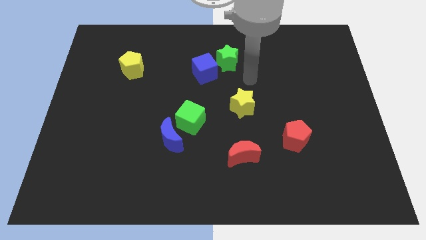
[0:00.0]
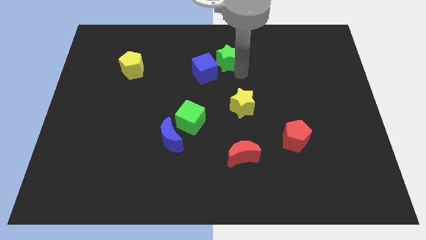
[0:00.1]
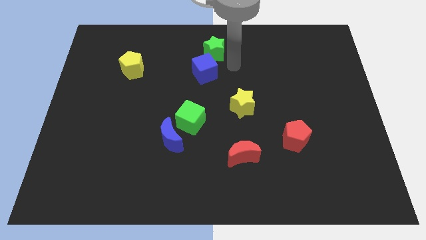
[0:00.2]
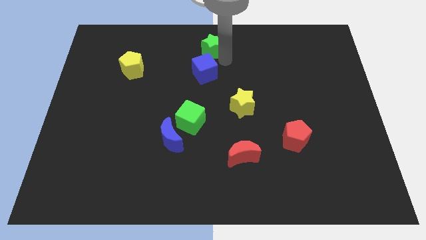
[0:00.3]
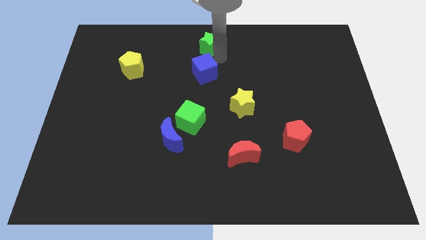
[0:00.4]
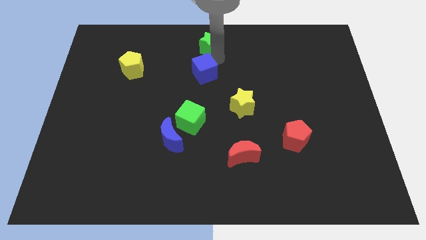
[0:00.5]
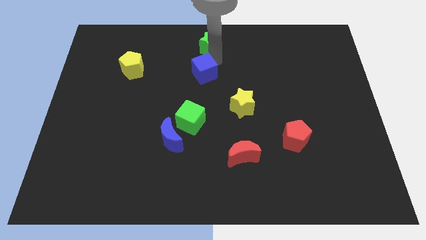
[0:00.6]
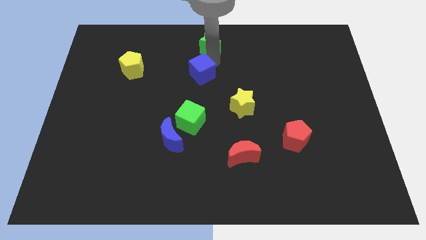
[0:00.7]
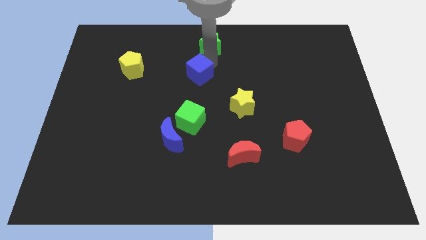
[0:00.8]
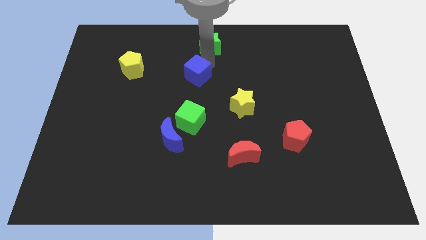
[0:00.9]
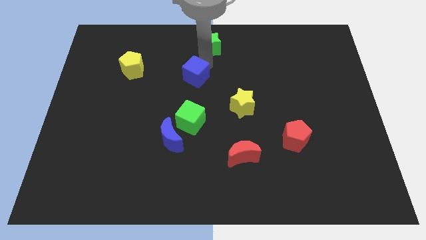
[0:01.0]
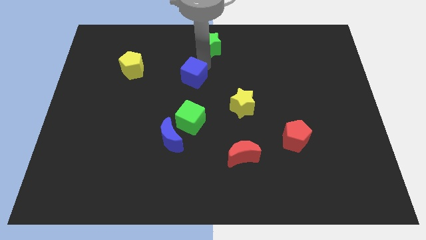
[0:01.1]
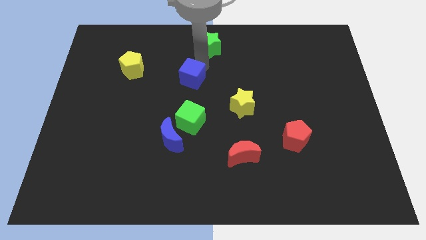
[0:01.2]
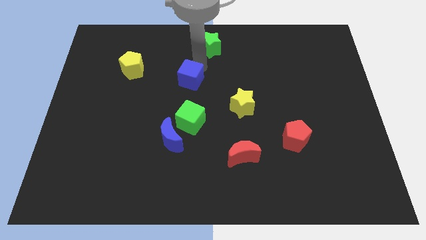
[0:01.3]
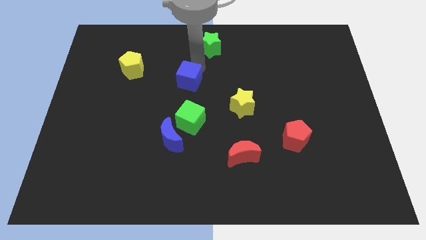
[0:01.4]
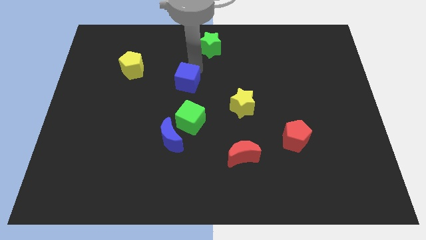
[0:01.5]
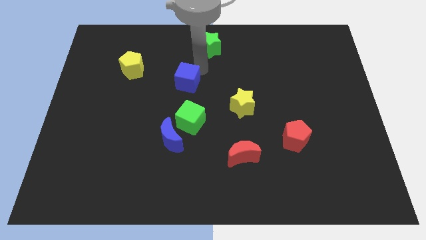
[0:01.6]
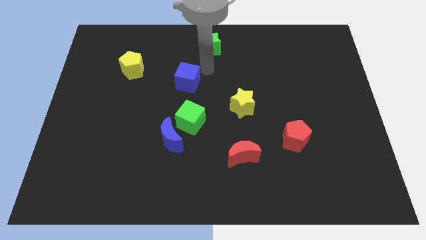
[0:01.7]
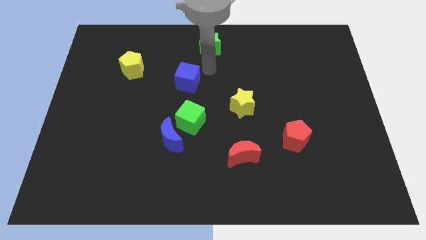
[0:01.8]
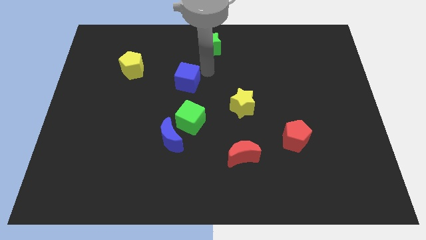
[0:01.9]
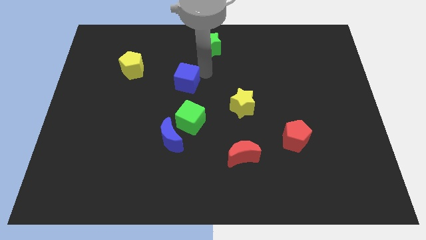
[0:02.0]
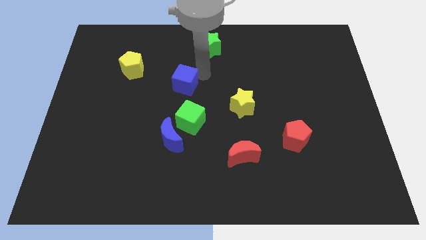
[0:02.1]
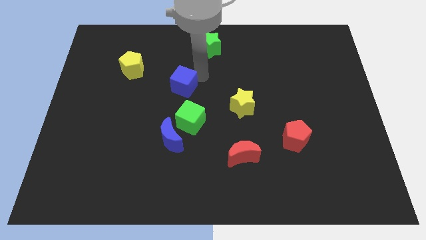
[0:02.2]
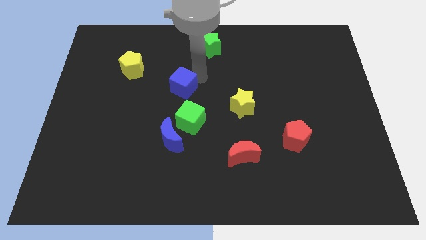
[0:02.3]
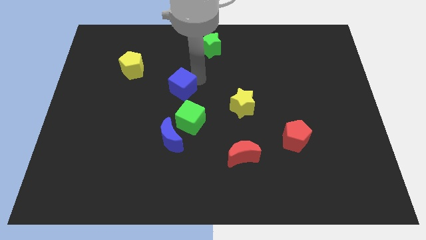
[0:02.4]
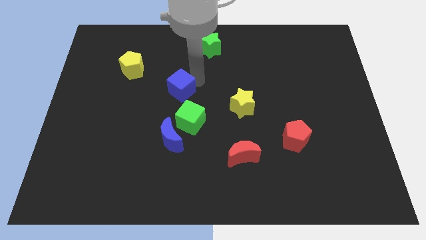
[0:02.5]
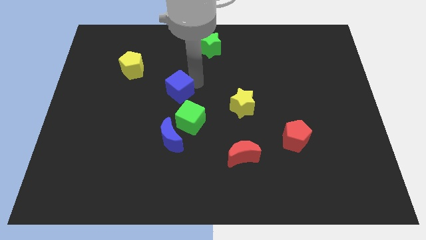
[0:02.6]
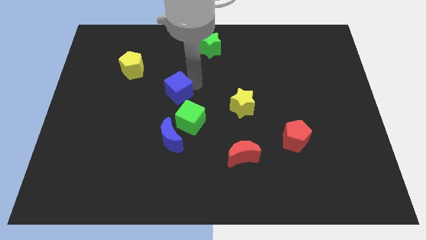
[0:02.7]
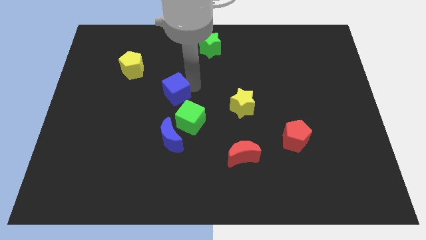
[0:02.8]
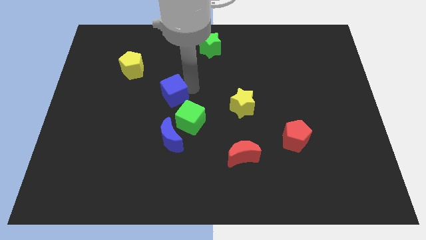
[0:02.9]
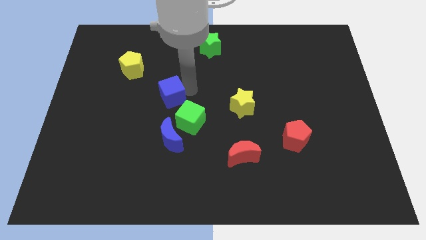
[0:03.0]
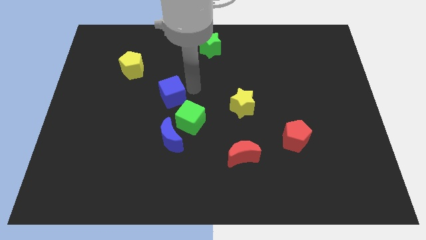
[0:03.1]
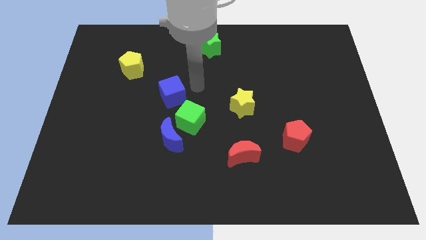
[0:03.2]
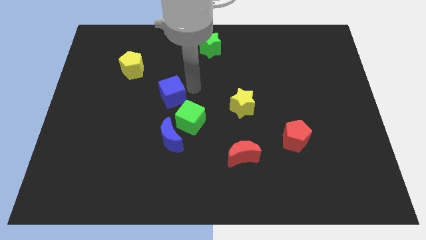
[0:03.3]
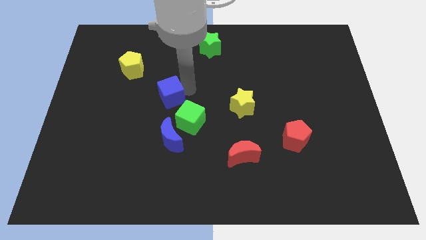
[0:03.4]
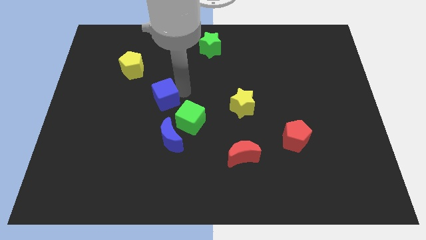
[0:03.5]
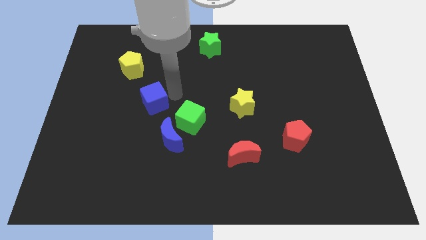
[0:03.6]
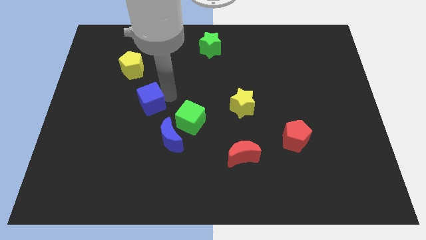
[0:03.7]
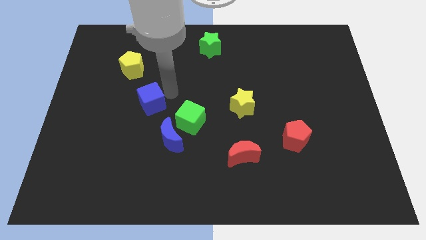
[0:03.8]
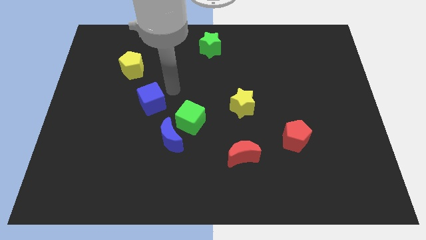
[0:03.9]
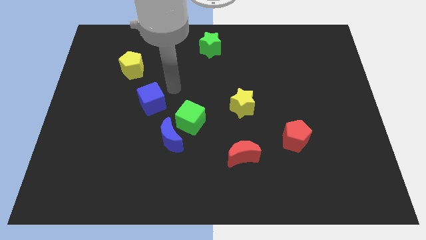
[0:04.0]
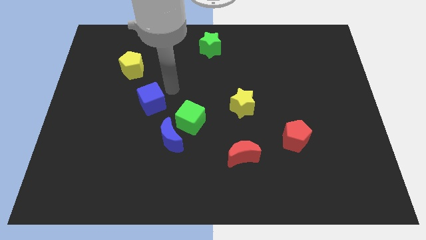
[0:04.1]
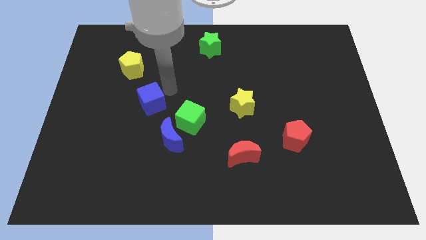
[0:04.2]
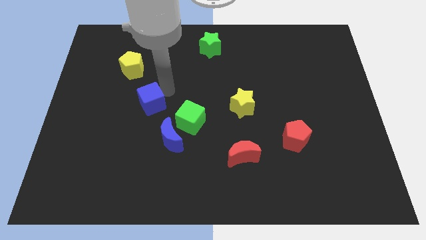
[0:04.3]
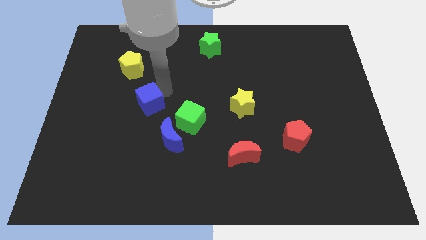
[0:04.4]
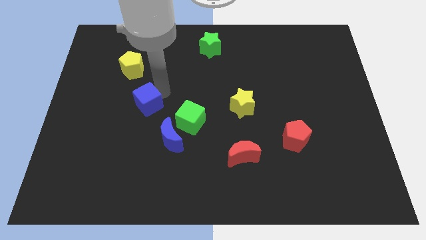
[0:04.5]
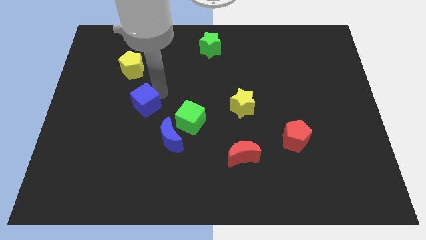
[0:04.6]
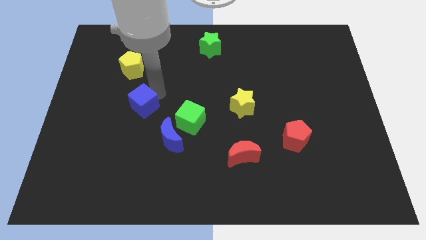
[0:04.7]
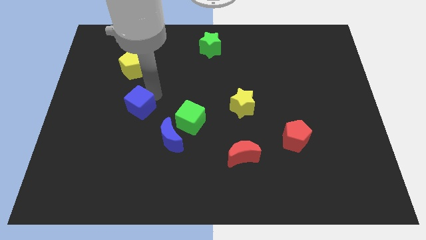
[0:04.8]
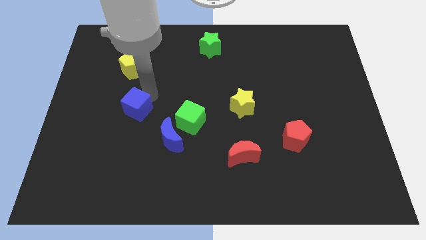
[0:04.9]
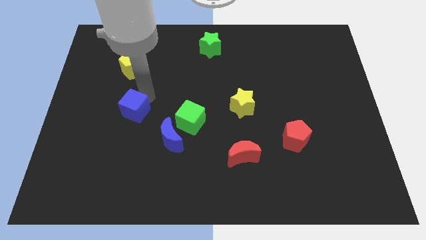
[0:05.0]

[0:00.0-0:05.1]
slide the blue cube down and to the left diagonally

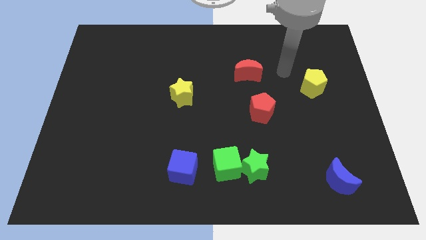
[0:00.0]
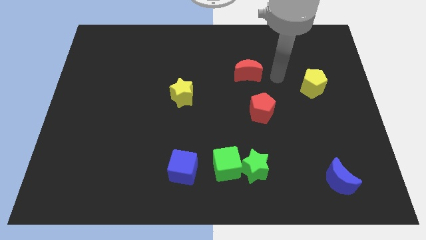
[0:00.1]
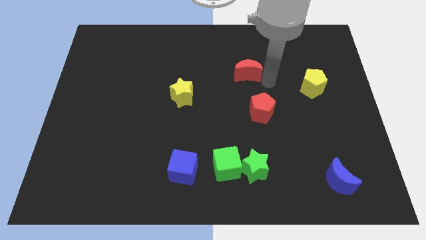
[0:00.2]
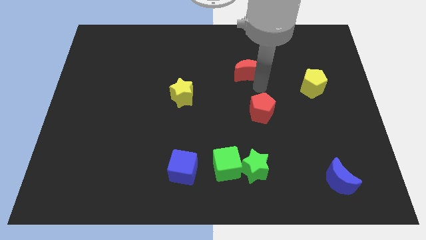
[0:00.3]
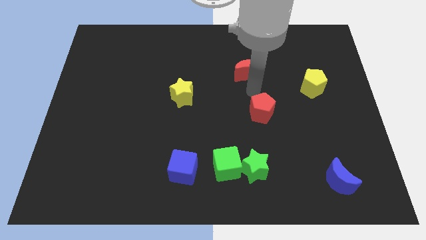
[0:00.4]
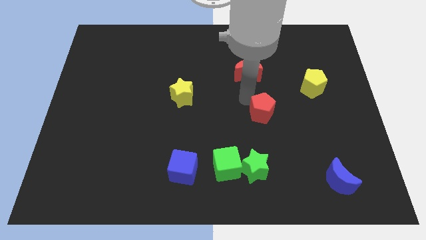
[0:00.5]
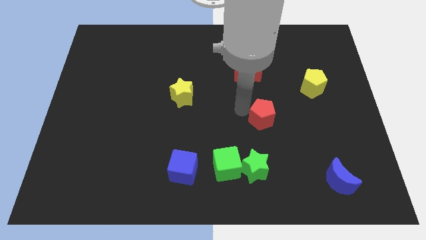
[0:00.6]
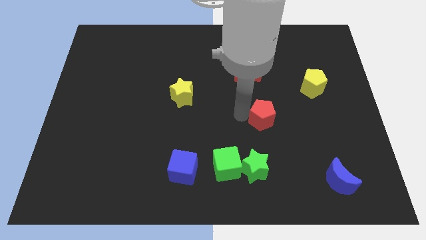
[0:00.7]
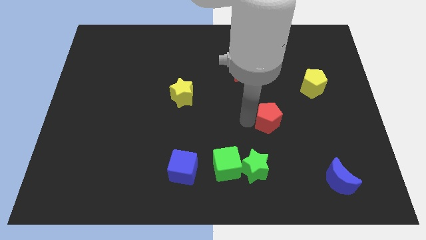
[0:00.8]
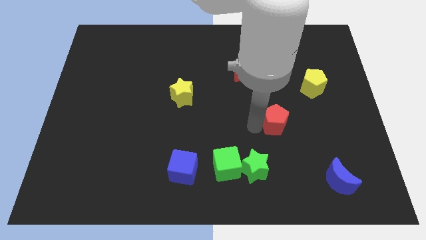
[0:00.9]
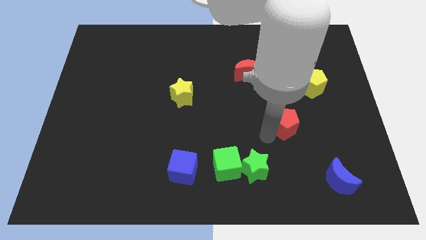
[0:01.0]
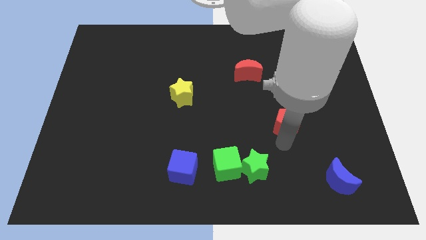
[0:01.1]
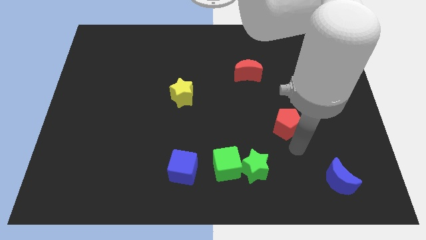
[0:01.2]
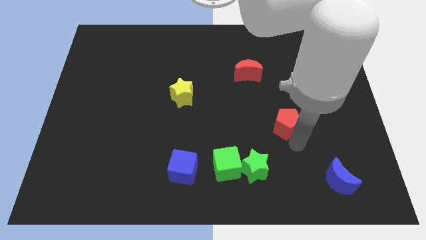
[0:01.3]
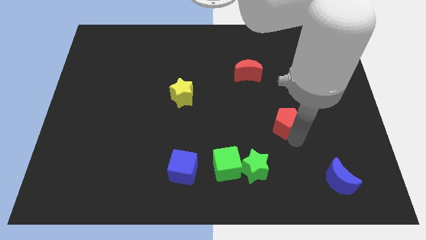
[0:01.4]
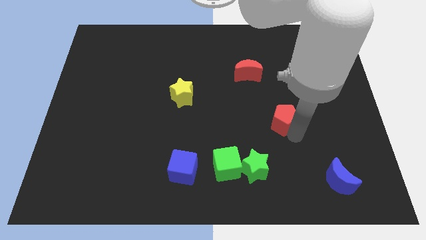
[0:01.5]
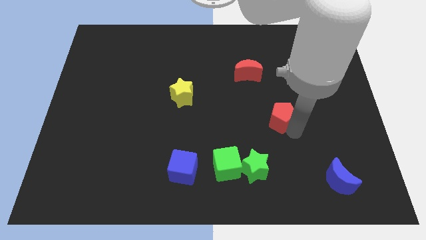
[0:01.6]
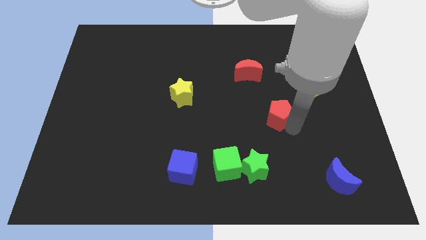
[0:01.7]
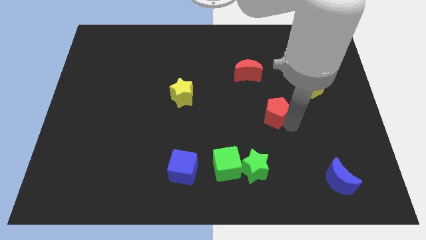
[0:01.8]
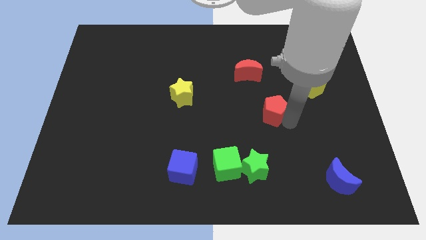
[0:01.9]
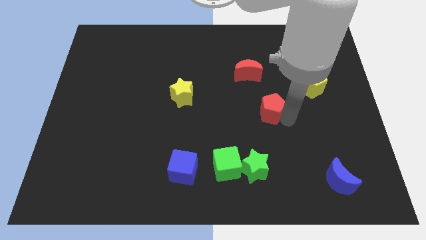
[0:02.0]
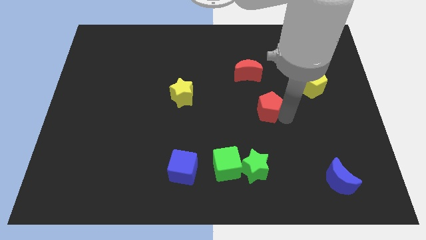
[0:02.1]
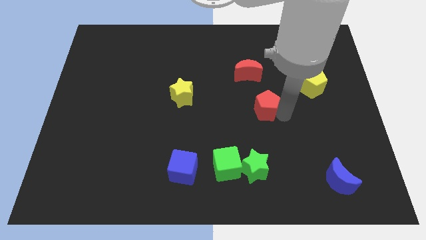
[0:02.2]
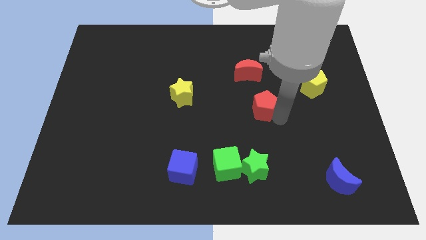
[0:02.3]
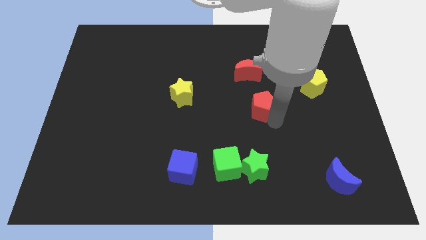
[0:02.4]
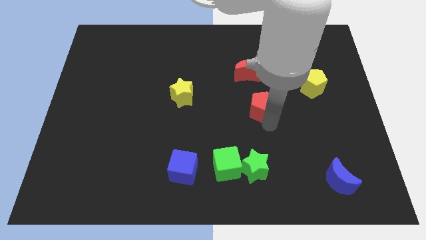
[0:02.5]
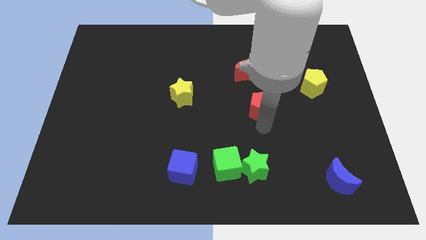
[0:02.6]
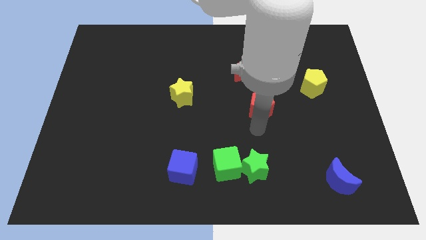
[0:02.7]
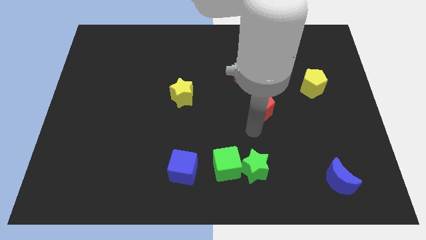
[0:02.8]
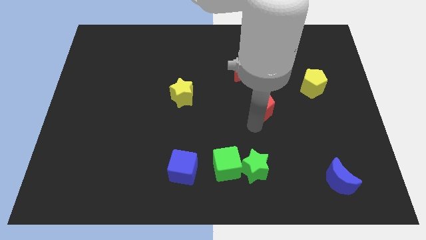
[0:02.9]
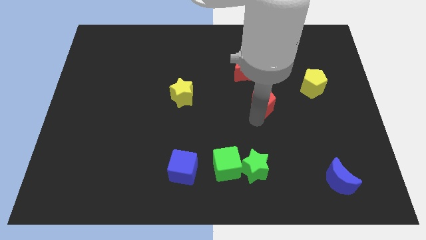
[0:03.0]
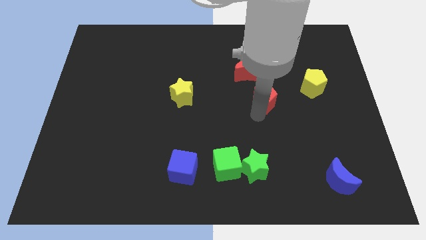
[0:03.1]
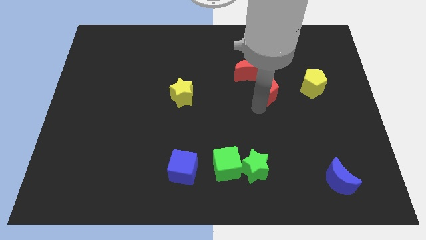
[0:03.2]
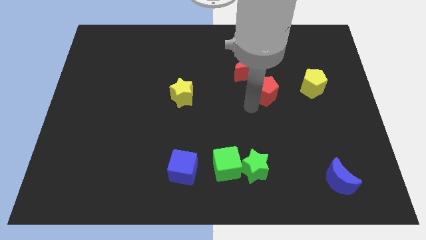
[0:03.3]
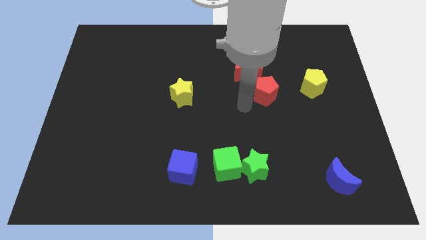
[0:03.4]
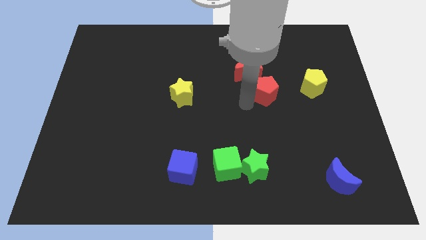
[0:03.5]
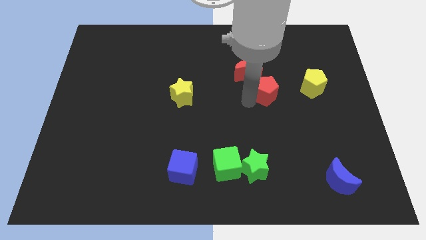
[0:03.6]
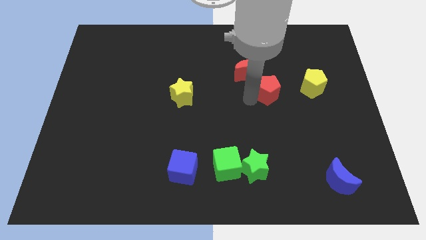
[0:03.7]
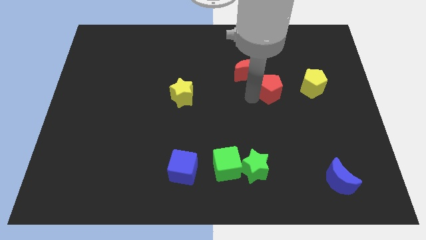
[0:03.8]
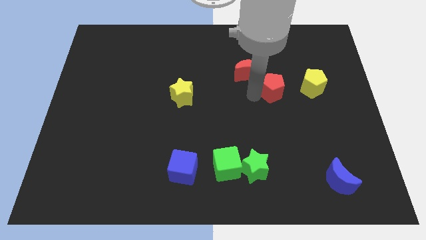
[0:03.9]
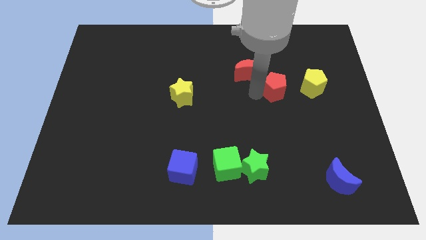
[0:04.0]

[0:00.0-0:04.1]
slightly push the red pentagon diagonally up and to the right
